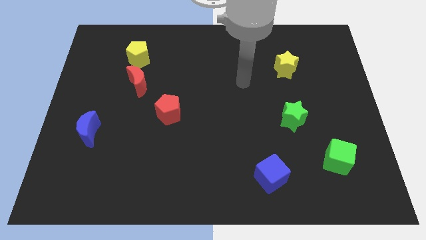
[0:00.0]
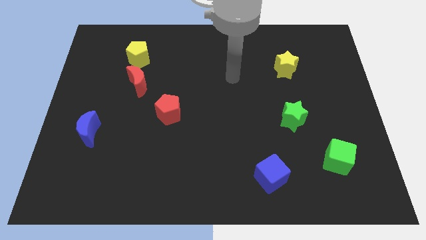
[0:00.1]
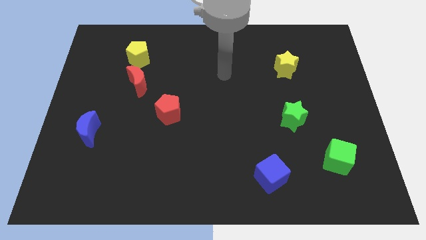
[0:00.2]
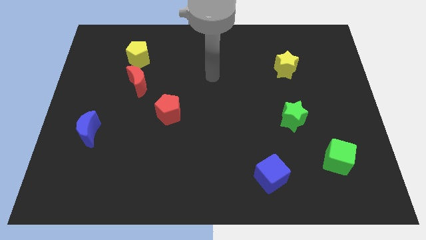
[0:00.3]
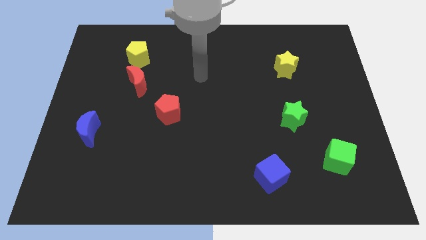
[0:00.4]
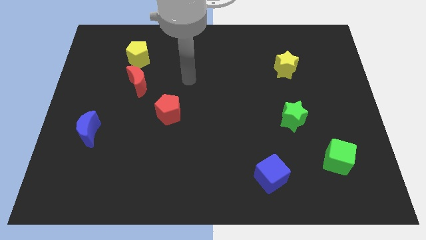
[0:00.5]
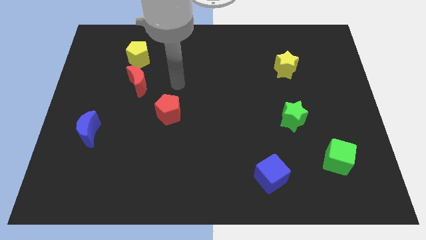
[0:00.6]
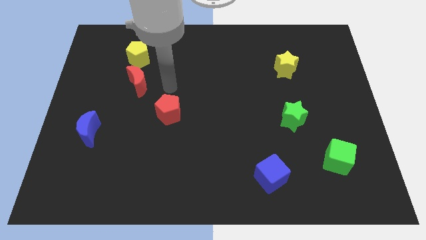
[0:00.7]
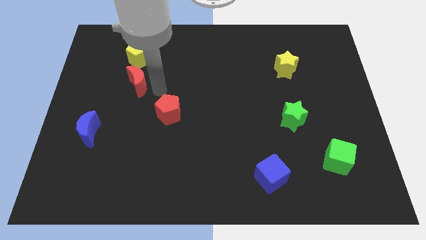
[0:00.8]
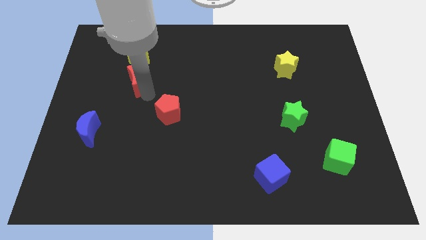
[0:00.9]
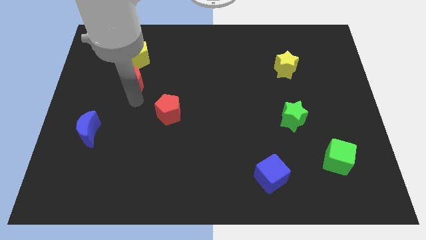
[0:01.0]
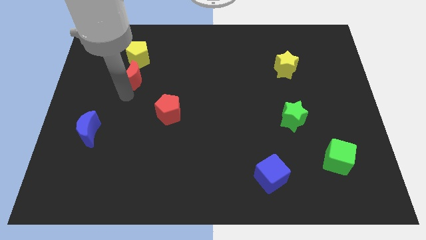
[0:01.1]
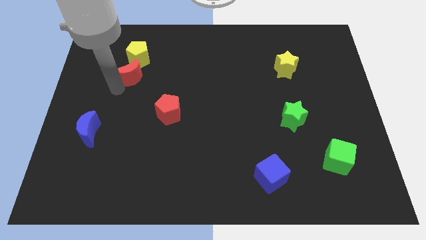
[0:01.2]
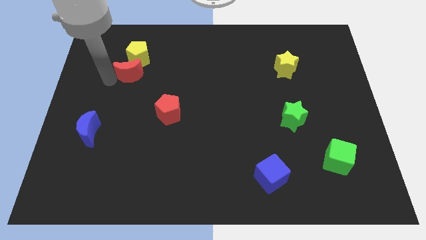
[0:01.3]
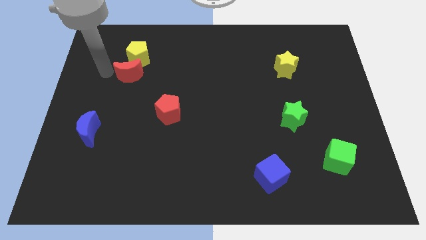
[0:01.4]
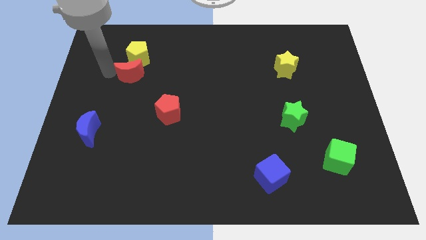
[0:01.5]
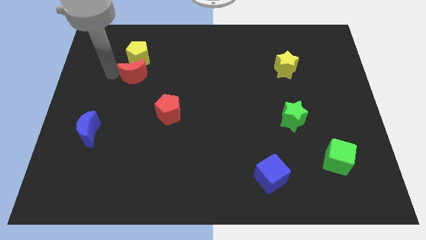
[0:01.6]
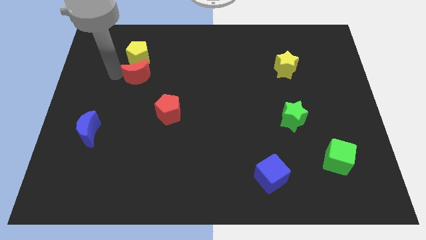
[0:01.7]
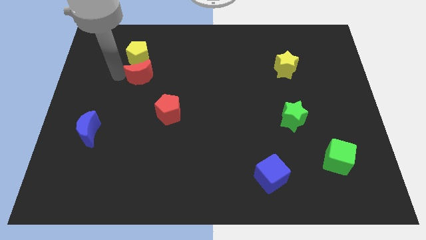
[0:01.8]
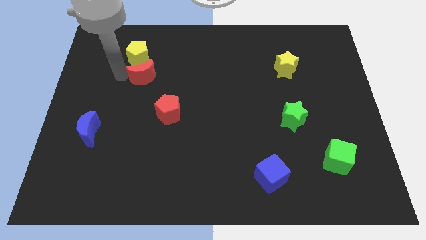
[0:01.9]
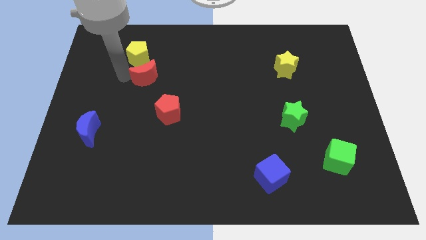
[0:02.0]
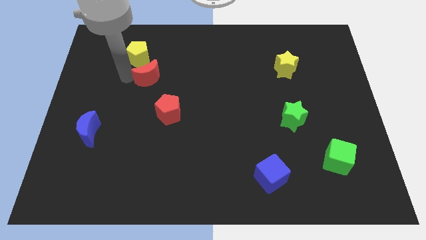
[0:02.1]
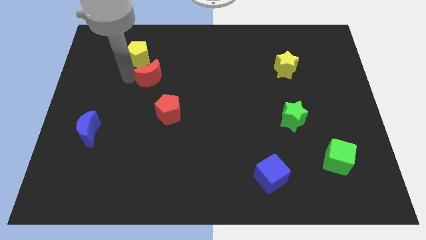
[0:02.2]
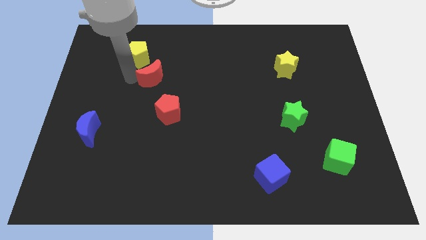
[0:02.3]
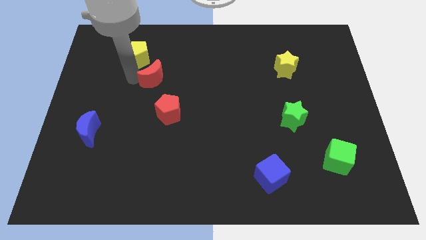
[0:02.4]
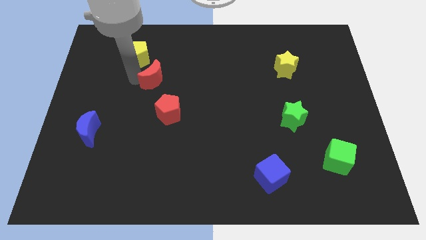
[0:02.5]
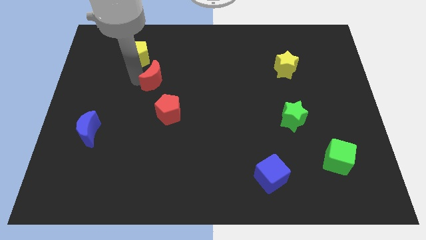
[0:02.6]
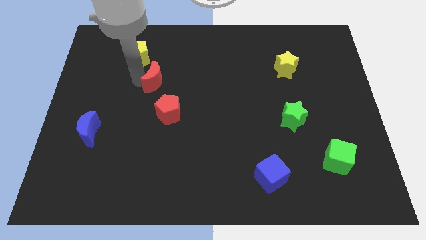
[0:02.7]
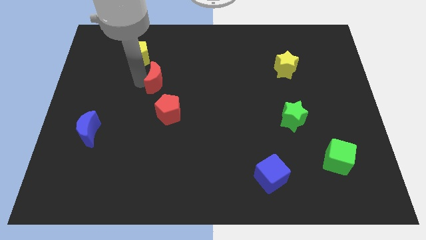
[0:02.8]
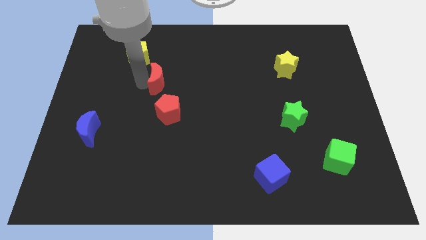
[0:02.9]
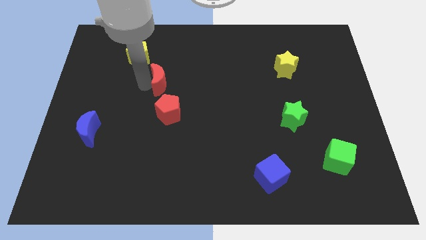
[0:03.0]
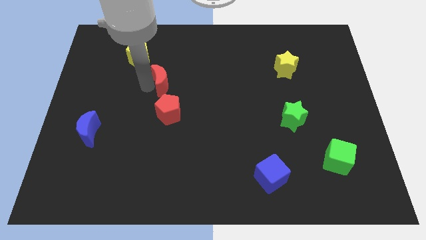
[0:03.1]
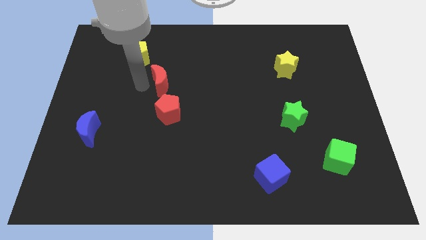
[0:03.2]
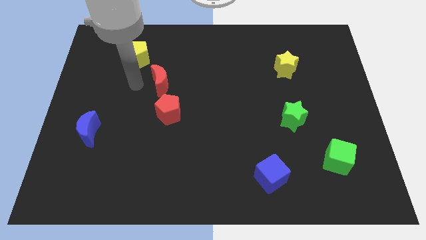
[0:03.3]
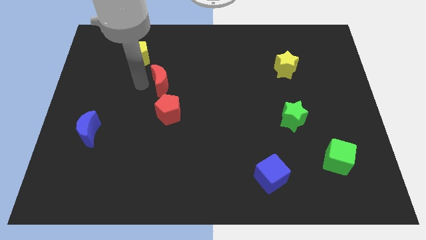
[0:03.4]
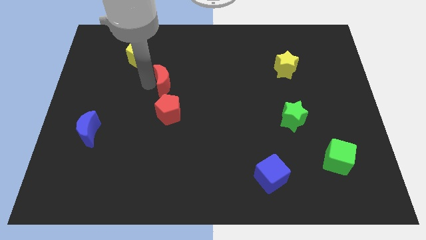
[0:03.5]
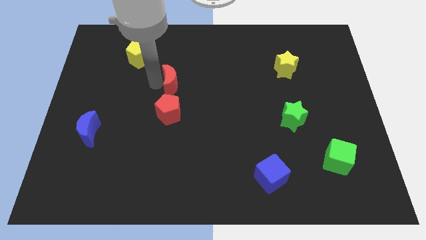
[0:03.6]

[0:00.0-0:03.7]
push the red moon a little bit to the right

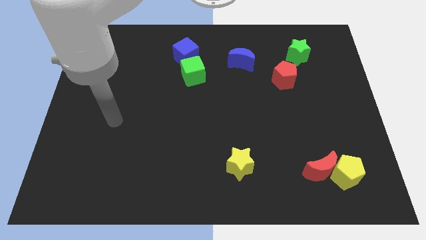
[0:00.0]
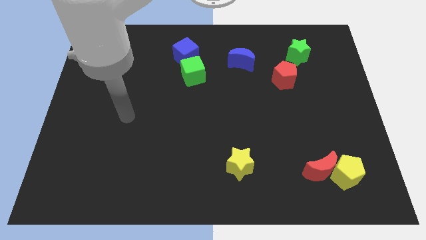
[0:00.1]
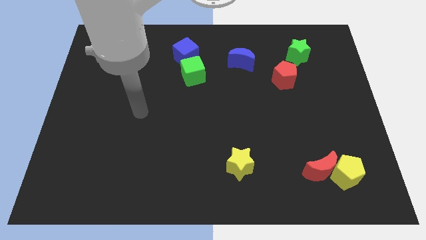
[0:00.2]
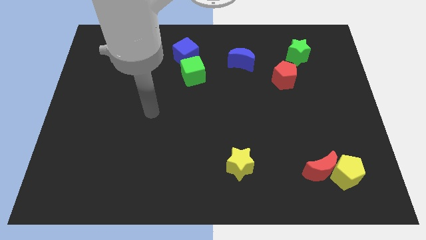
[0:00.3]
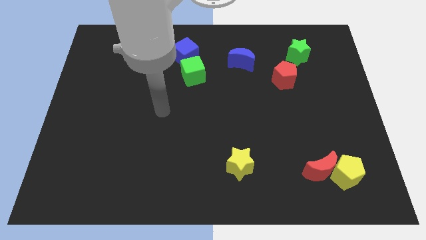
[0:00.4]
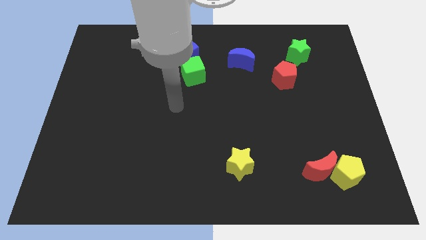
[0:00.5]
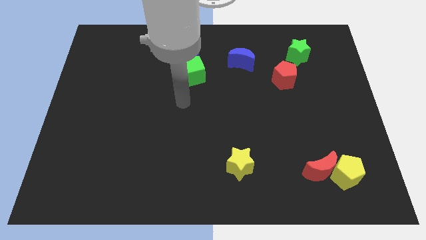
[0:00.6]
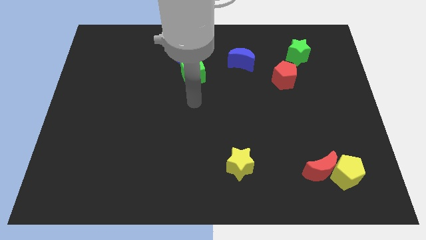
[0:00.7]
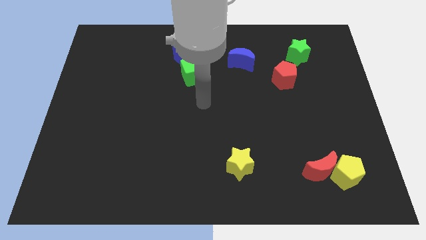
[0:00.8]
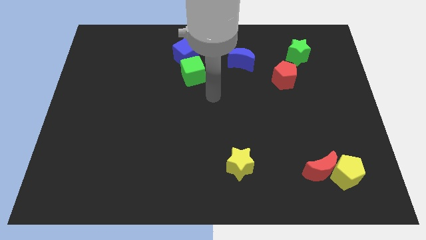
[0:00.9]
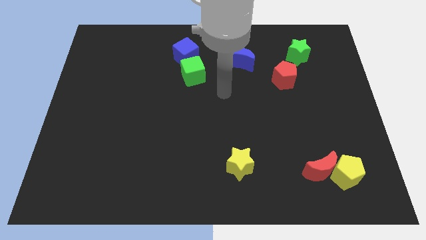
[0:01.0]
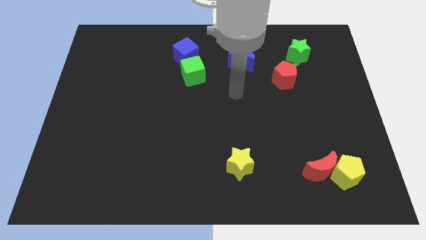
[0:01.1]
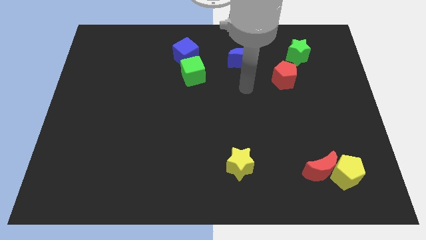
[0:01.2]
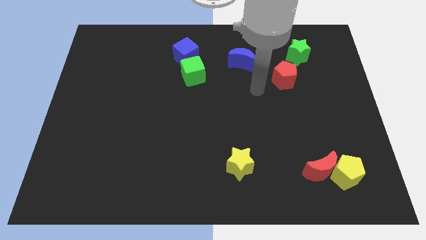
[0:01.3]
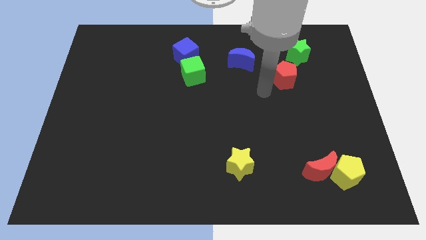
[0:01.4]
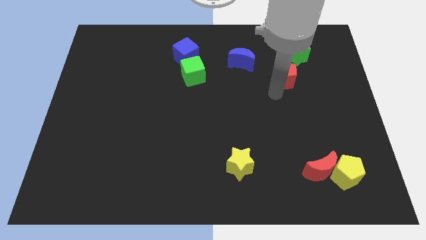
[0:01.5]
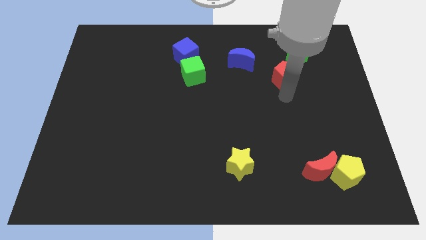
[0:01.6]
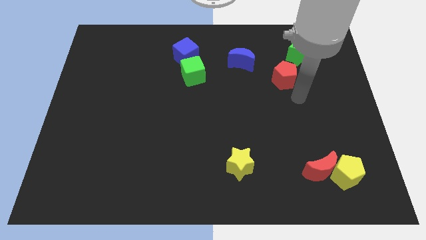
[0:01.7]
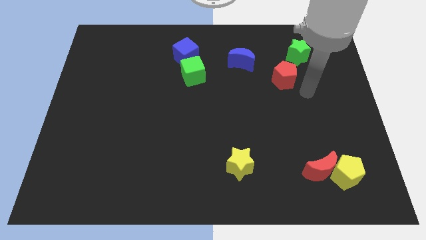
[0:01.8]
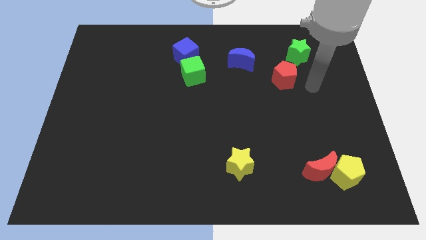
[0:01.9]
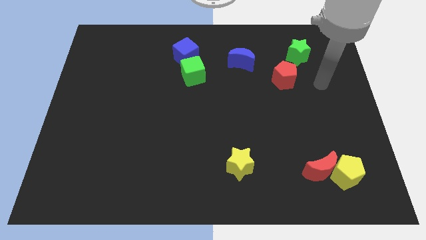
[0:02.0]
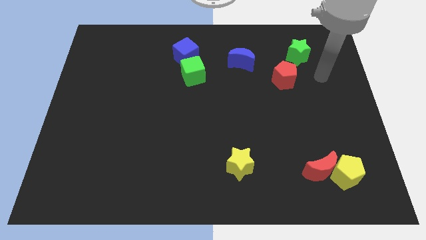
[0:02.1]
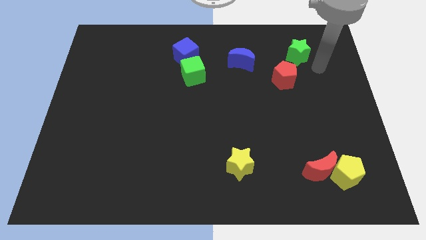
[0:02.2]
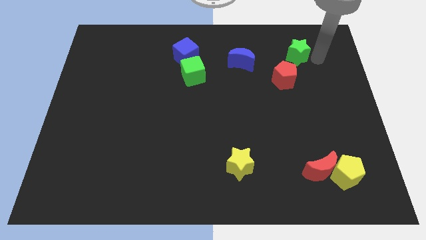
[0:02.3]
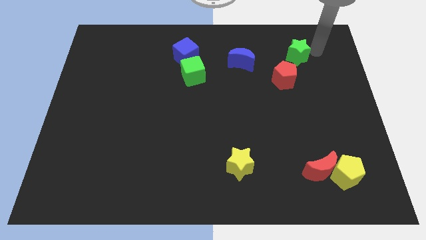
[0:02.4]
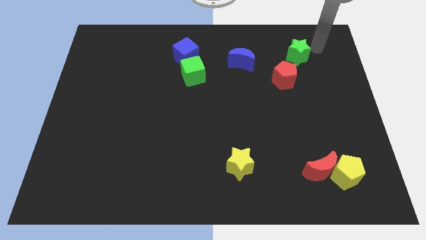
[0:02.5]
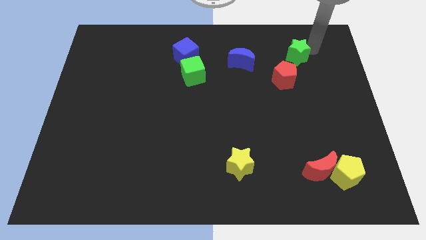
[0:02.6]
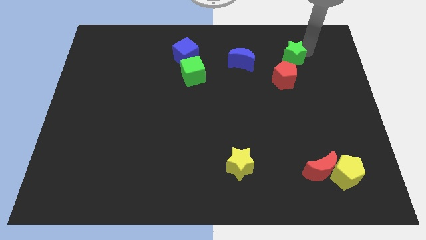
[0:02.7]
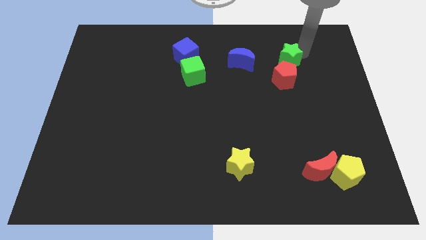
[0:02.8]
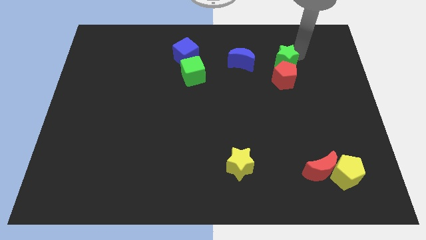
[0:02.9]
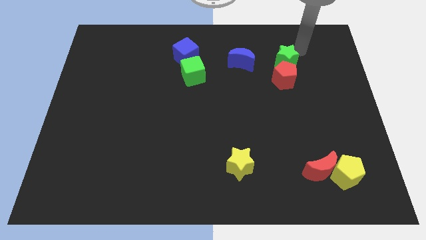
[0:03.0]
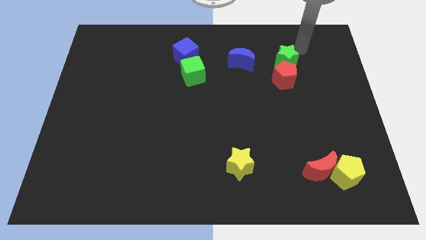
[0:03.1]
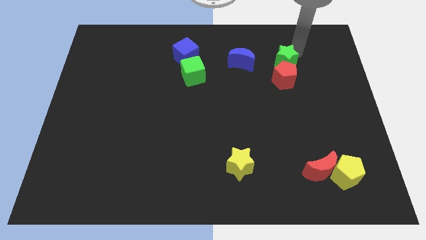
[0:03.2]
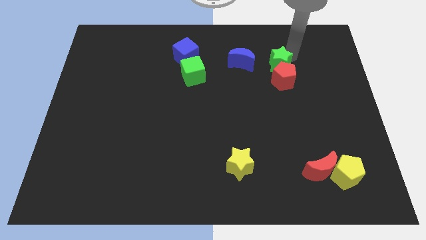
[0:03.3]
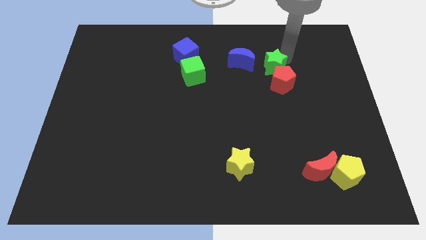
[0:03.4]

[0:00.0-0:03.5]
push the green star diagonally downwards and to the left slightly

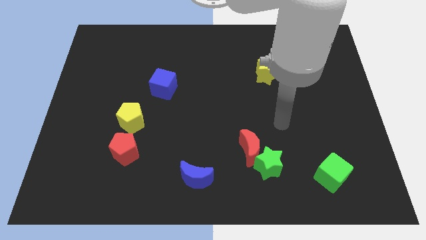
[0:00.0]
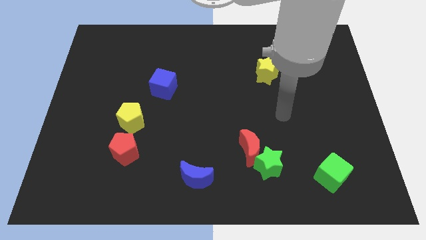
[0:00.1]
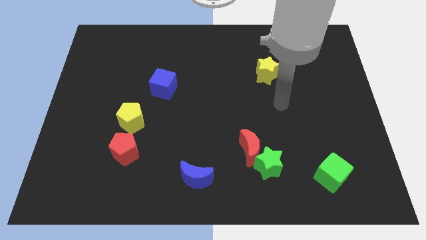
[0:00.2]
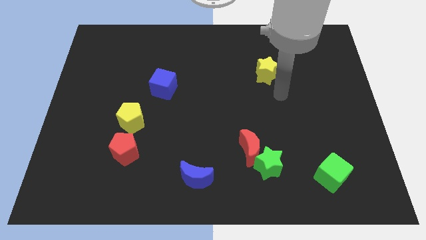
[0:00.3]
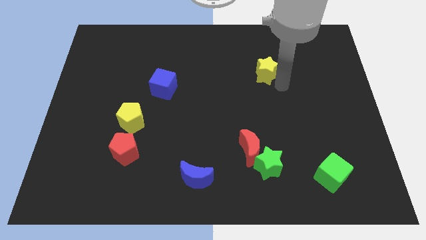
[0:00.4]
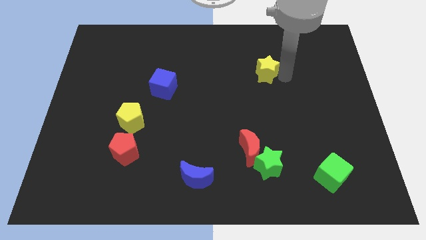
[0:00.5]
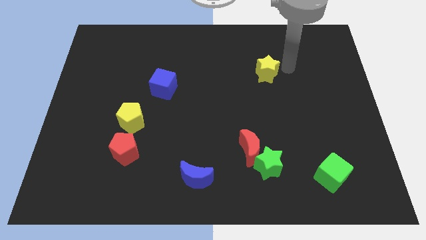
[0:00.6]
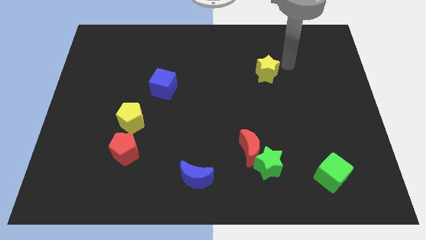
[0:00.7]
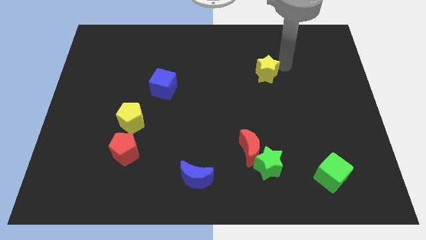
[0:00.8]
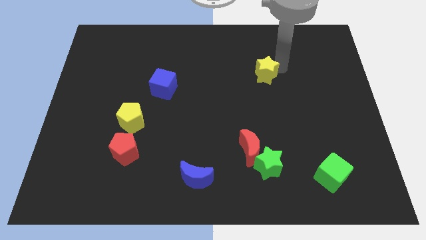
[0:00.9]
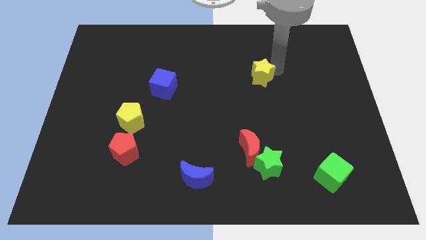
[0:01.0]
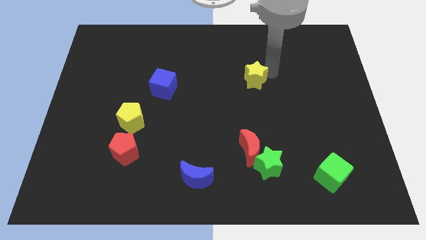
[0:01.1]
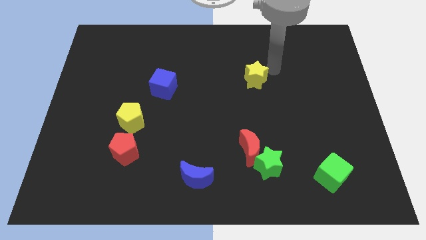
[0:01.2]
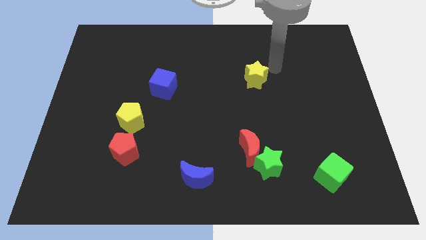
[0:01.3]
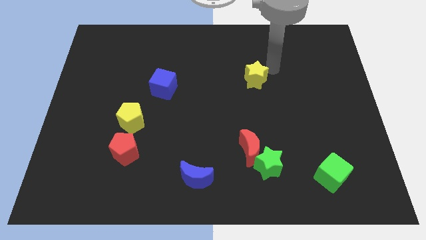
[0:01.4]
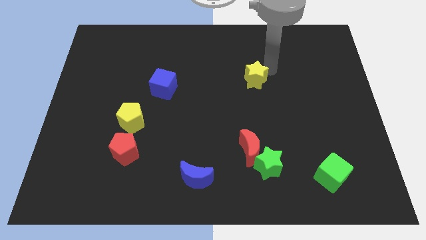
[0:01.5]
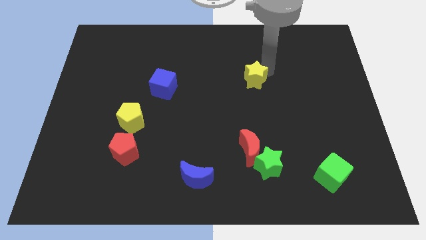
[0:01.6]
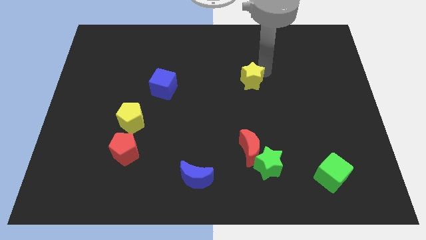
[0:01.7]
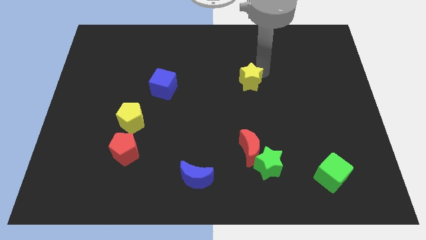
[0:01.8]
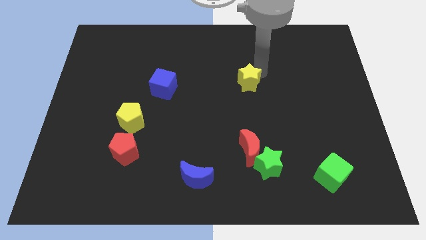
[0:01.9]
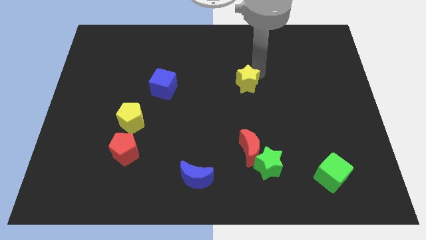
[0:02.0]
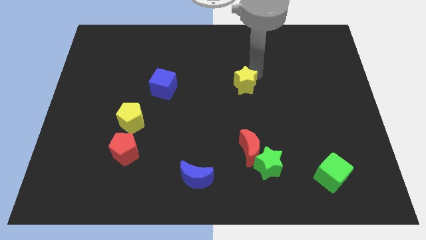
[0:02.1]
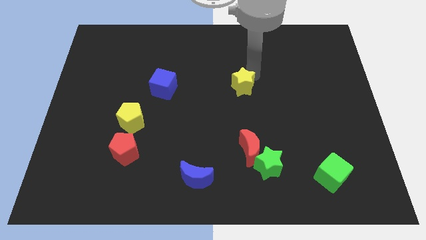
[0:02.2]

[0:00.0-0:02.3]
push the yellow star downwards and left somewhat
